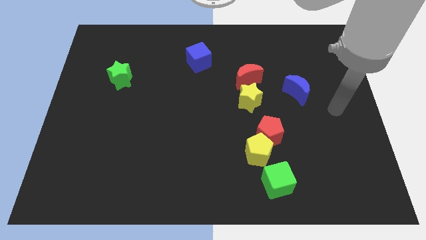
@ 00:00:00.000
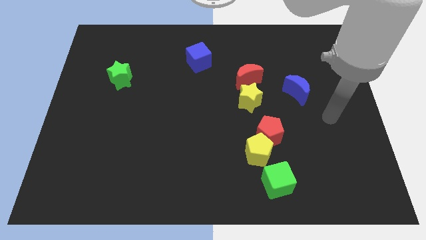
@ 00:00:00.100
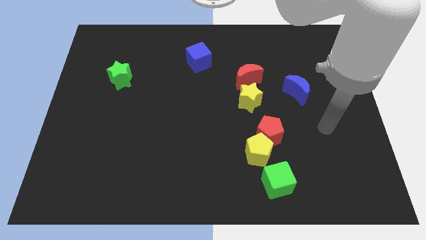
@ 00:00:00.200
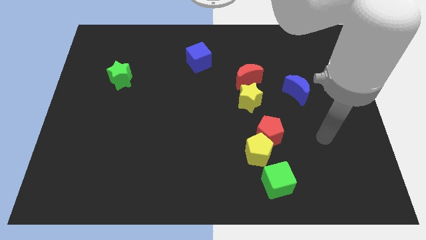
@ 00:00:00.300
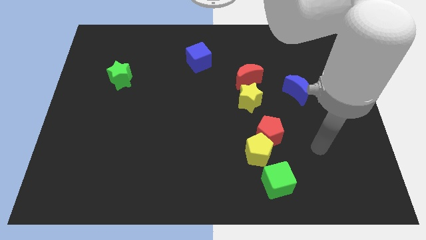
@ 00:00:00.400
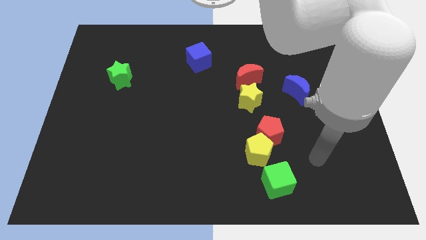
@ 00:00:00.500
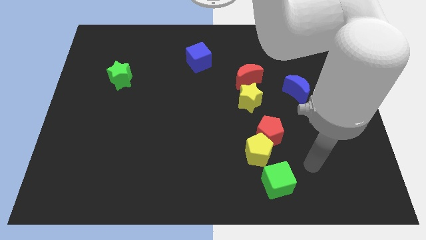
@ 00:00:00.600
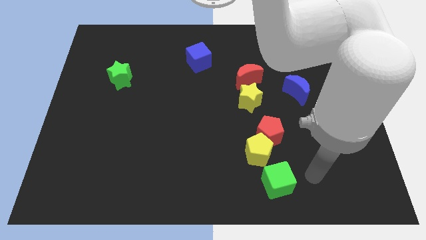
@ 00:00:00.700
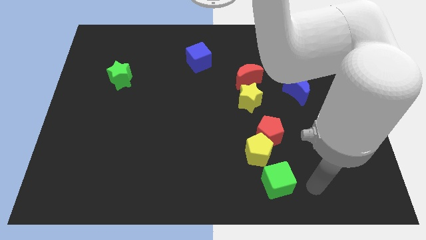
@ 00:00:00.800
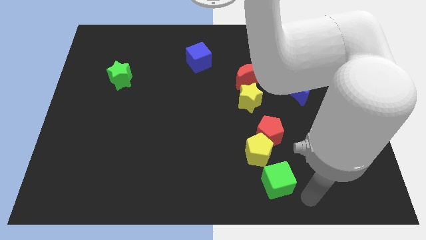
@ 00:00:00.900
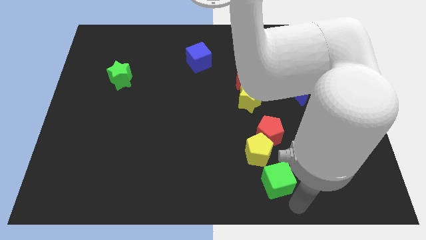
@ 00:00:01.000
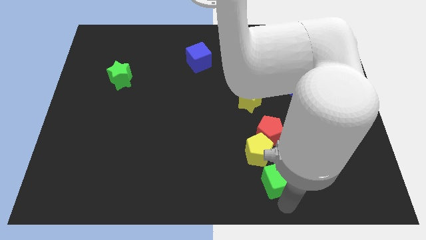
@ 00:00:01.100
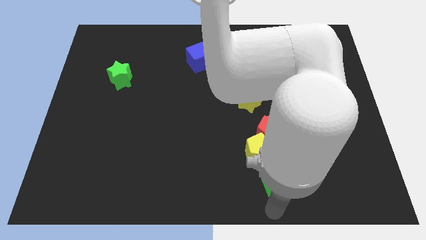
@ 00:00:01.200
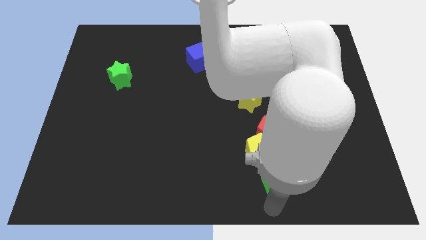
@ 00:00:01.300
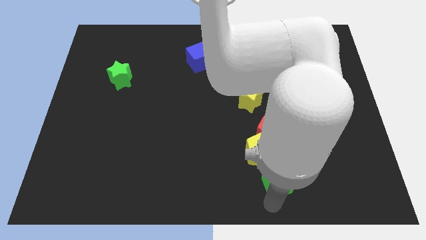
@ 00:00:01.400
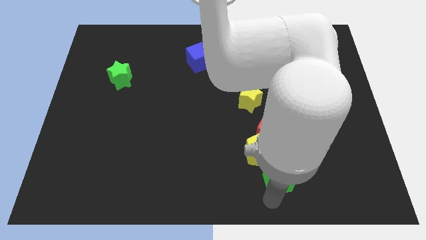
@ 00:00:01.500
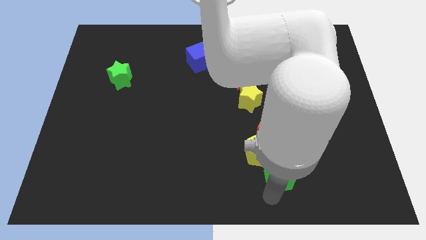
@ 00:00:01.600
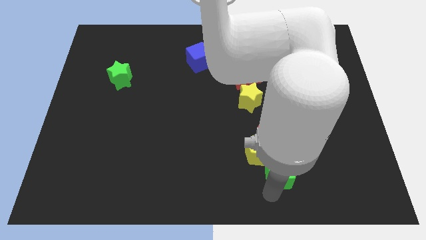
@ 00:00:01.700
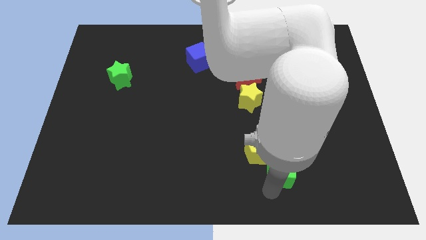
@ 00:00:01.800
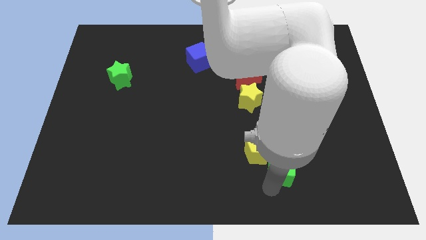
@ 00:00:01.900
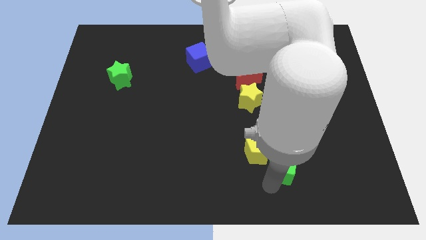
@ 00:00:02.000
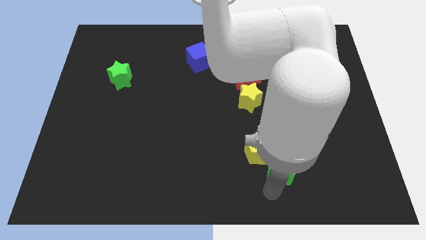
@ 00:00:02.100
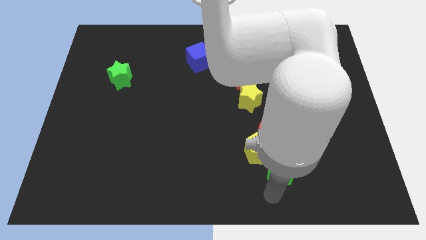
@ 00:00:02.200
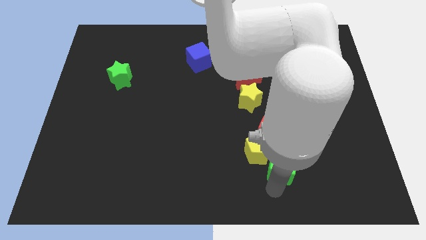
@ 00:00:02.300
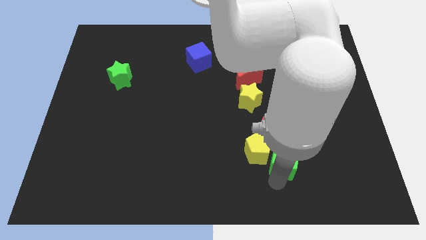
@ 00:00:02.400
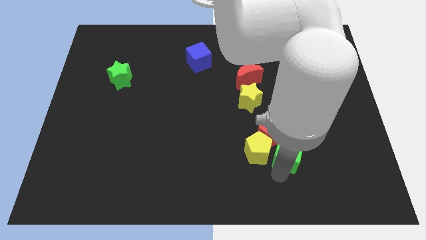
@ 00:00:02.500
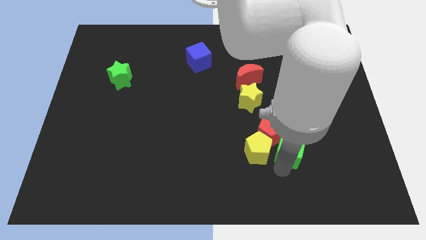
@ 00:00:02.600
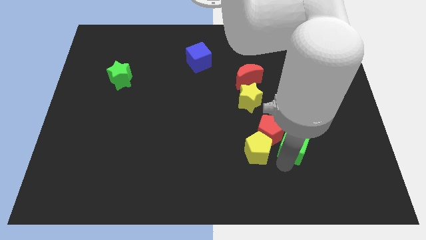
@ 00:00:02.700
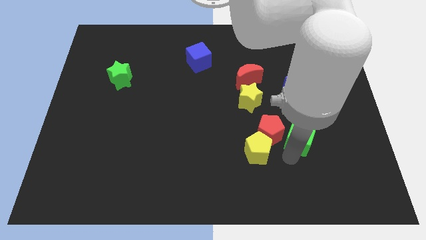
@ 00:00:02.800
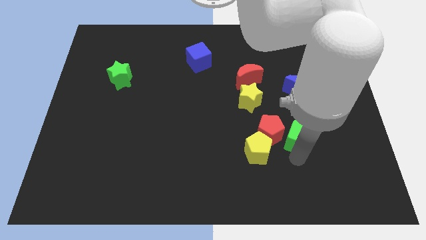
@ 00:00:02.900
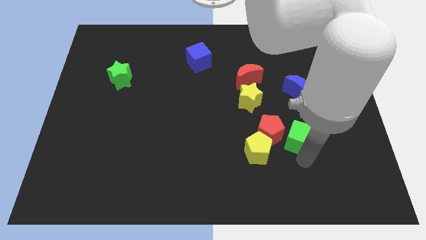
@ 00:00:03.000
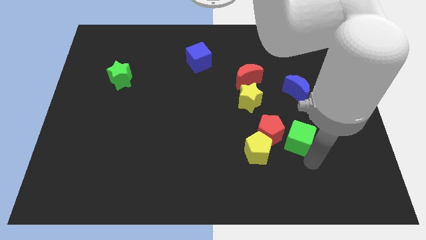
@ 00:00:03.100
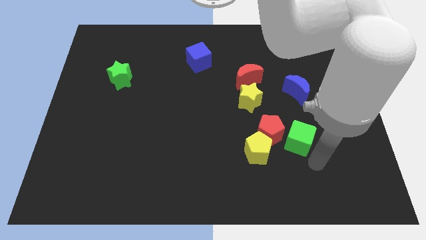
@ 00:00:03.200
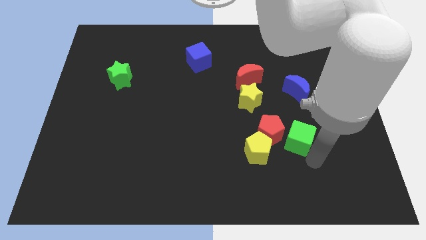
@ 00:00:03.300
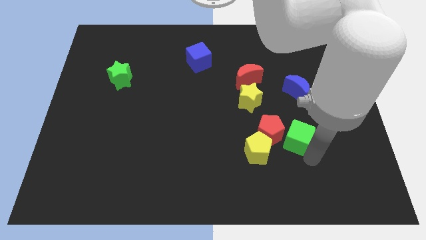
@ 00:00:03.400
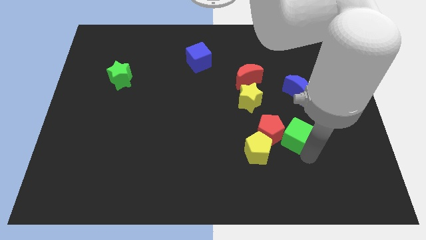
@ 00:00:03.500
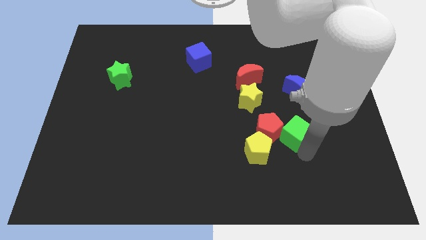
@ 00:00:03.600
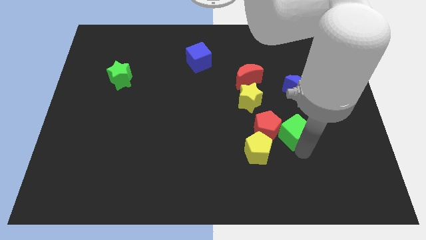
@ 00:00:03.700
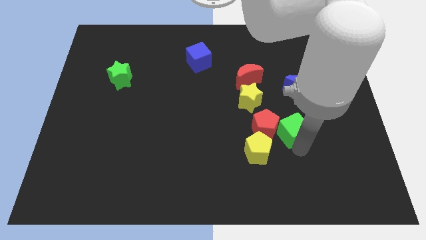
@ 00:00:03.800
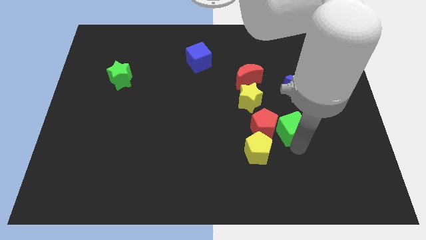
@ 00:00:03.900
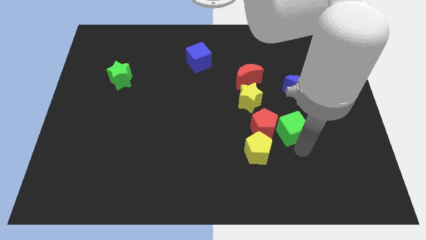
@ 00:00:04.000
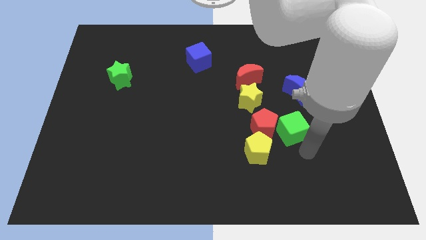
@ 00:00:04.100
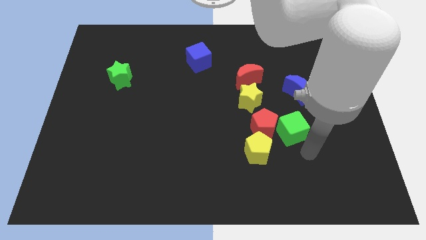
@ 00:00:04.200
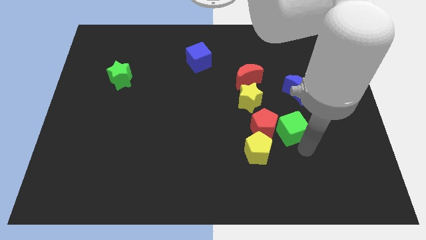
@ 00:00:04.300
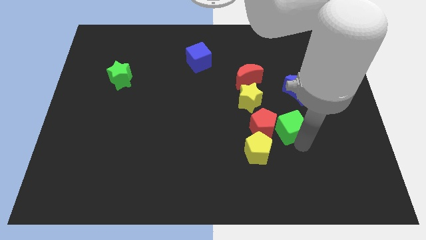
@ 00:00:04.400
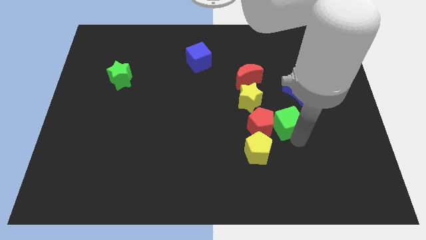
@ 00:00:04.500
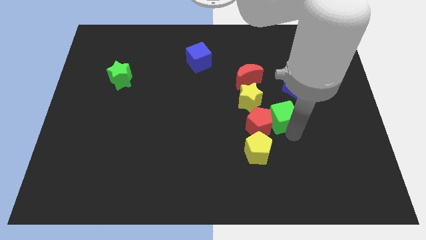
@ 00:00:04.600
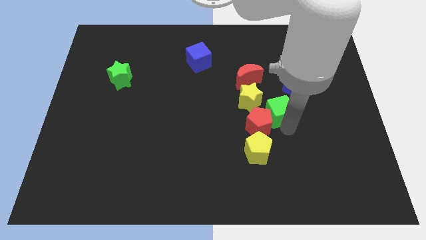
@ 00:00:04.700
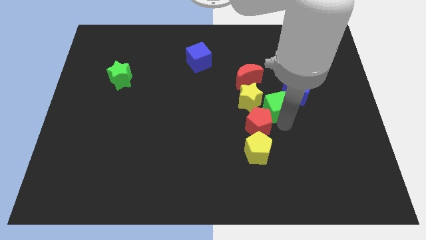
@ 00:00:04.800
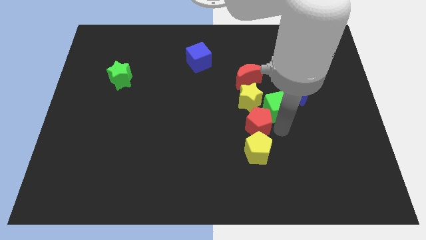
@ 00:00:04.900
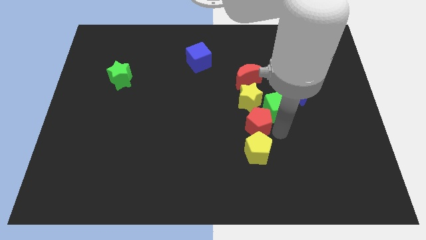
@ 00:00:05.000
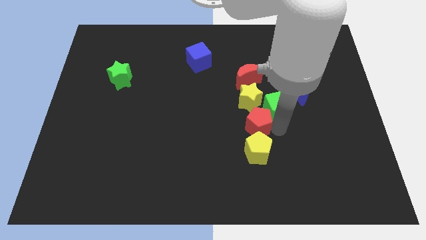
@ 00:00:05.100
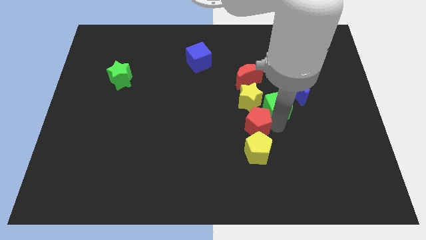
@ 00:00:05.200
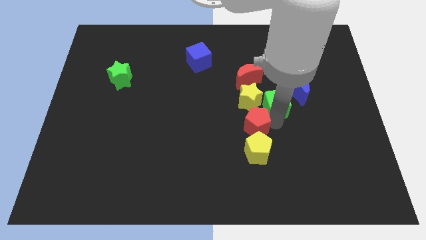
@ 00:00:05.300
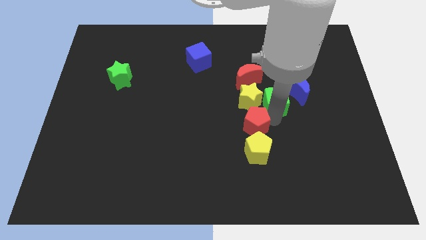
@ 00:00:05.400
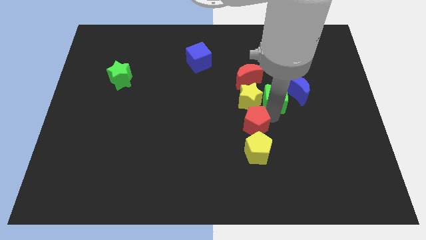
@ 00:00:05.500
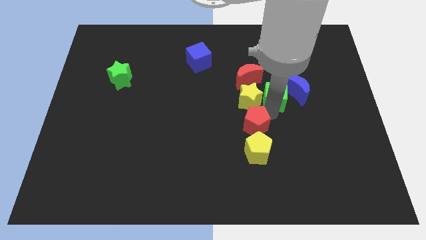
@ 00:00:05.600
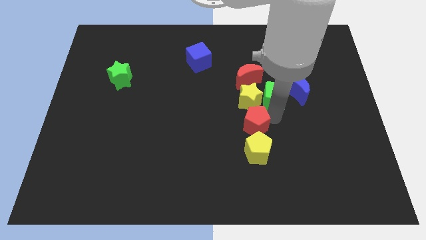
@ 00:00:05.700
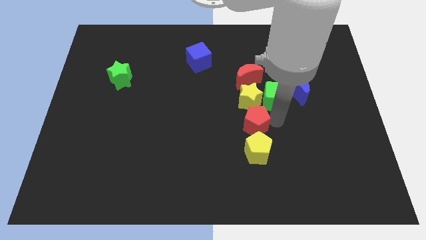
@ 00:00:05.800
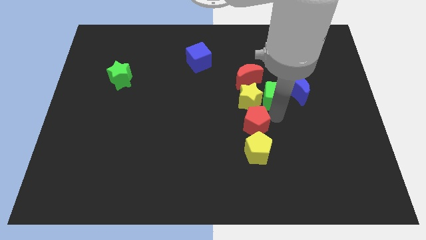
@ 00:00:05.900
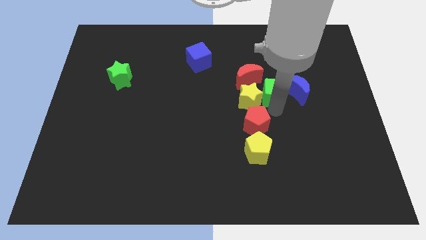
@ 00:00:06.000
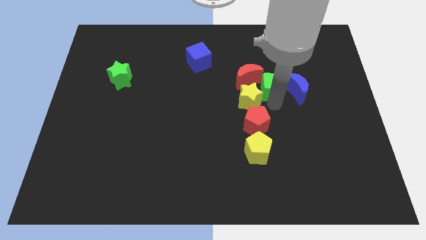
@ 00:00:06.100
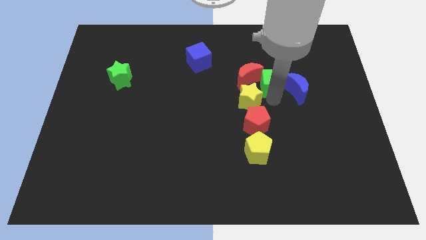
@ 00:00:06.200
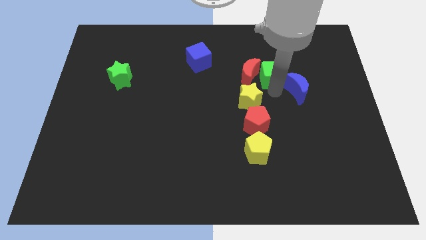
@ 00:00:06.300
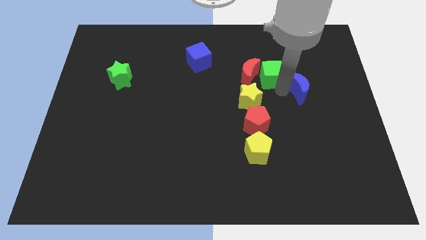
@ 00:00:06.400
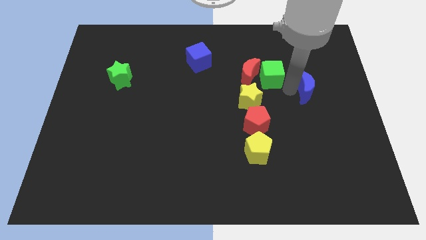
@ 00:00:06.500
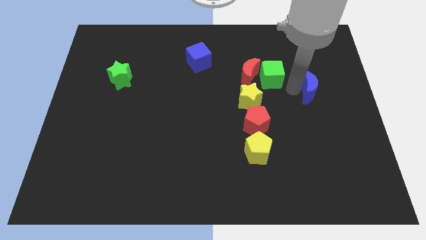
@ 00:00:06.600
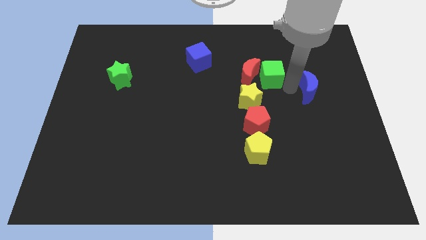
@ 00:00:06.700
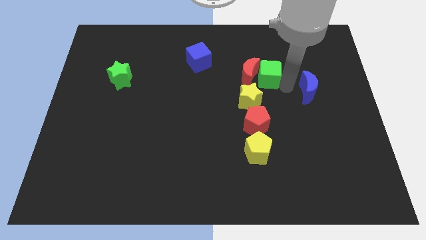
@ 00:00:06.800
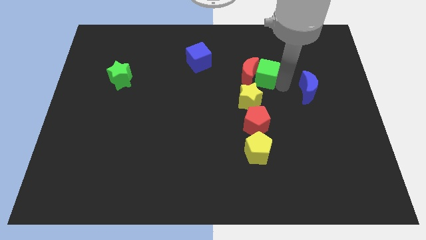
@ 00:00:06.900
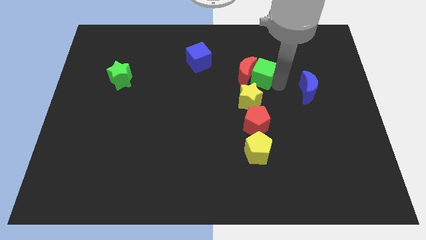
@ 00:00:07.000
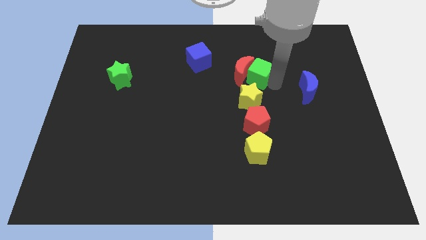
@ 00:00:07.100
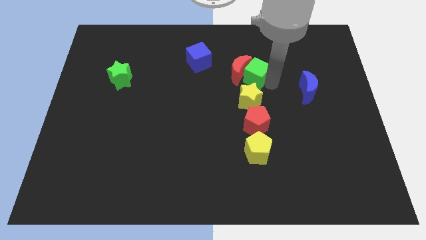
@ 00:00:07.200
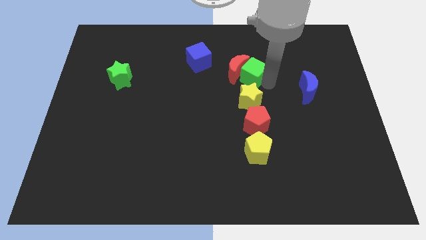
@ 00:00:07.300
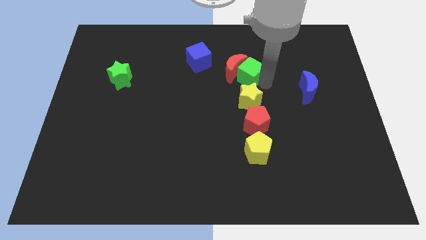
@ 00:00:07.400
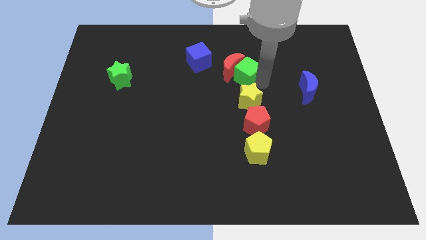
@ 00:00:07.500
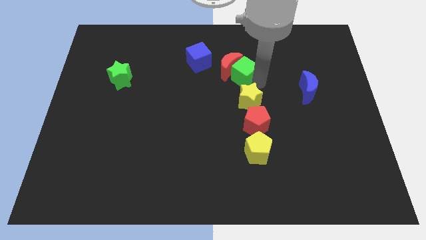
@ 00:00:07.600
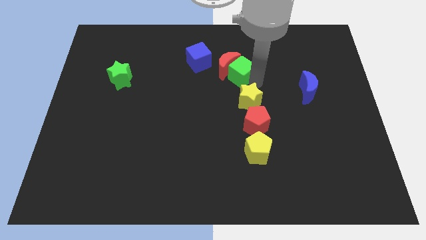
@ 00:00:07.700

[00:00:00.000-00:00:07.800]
push the green cube right of the blue cube
